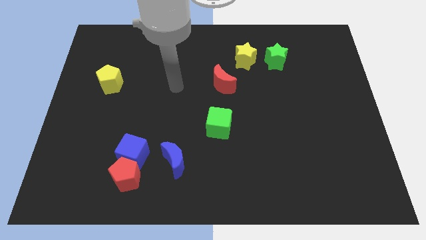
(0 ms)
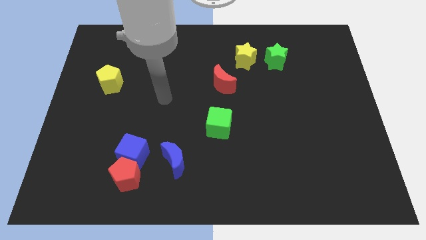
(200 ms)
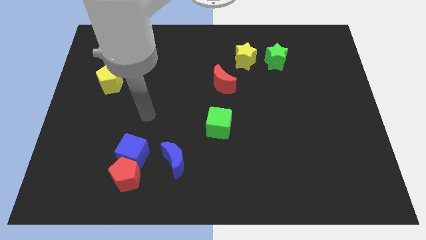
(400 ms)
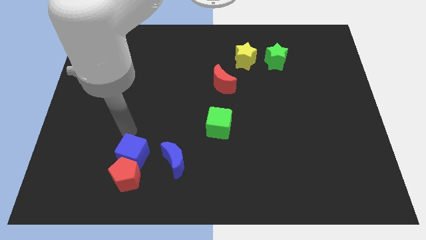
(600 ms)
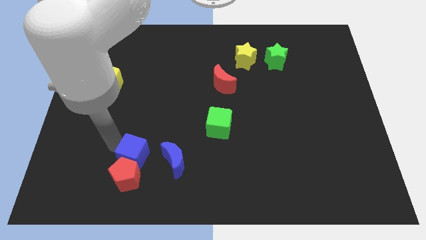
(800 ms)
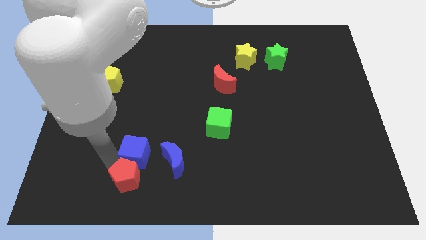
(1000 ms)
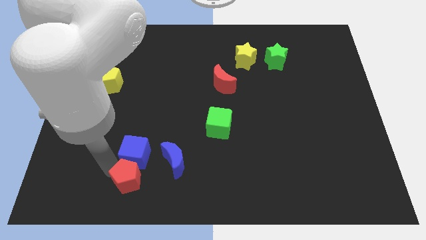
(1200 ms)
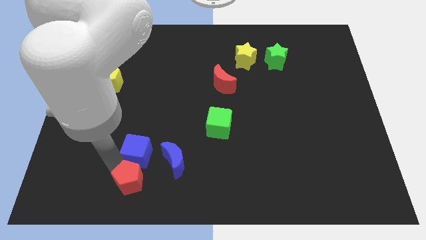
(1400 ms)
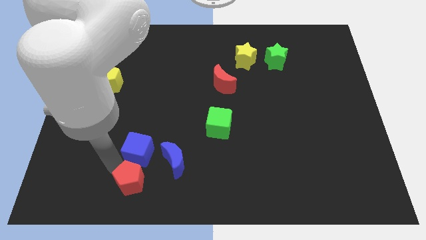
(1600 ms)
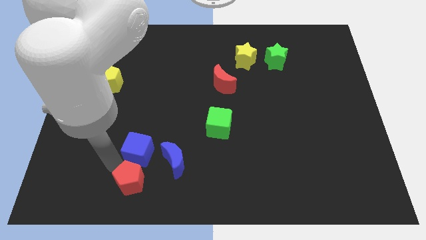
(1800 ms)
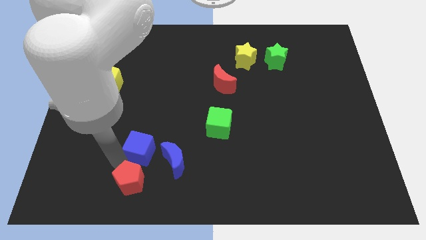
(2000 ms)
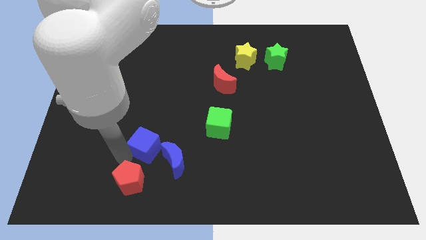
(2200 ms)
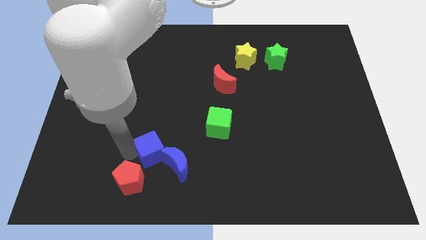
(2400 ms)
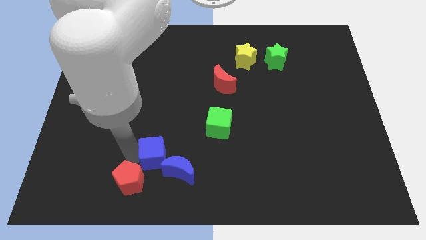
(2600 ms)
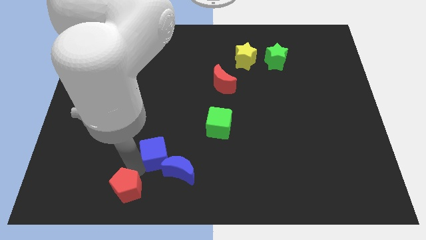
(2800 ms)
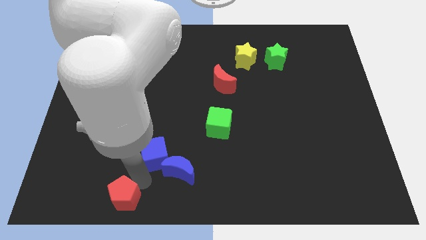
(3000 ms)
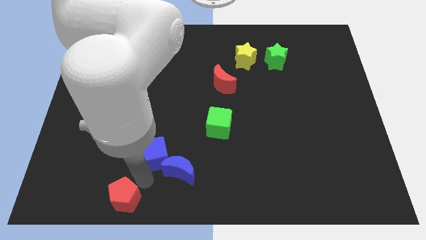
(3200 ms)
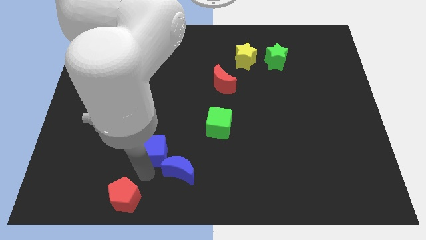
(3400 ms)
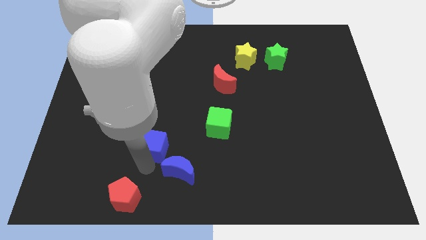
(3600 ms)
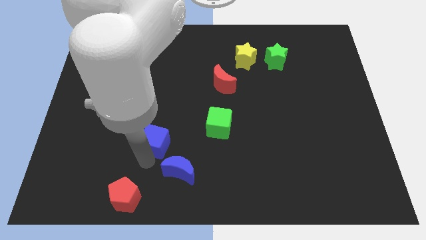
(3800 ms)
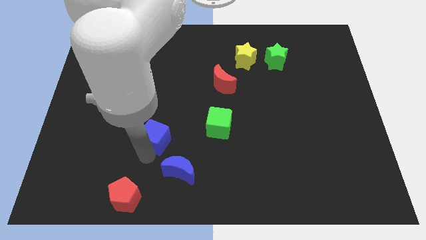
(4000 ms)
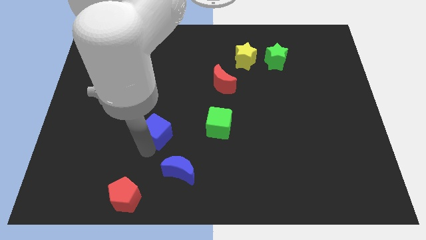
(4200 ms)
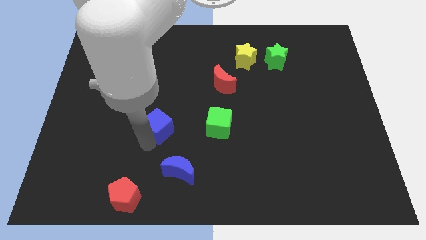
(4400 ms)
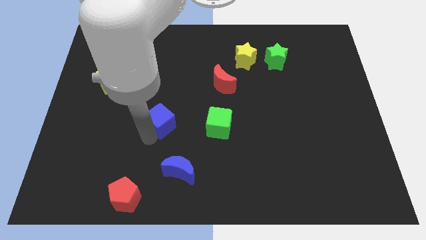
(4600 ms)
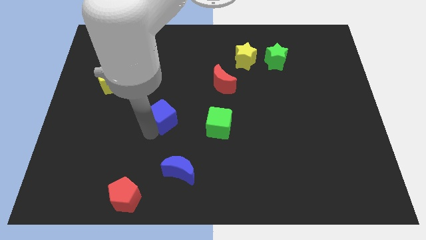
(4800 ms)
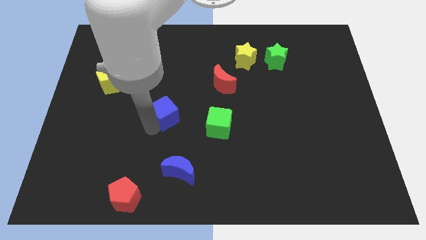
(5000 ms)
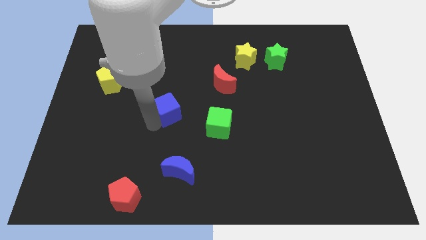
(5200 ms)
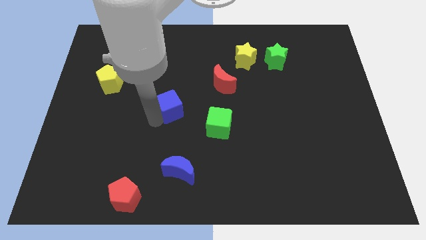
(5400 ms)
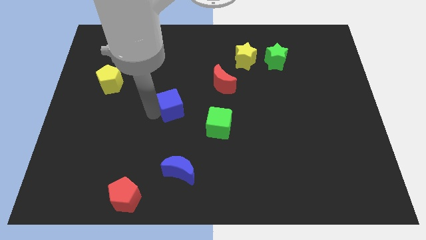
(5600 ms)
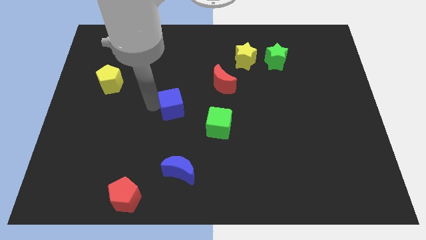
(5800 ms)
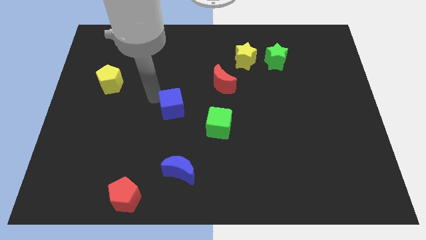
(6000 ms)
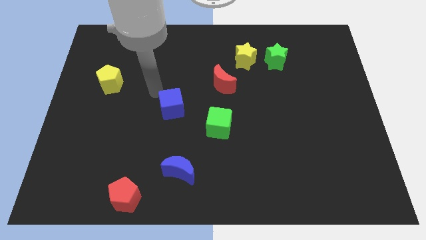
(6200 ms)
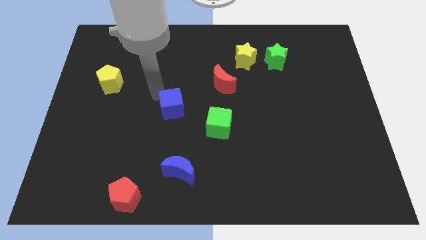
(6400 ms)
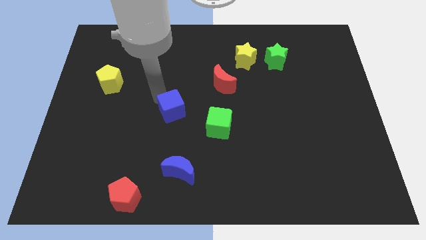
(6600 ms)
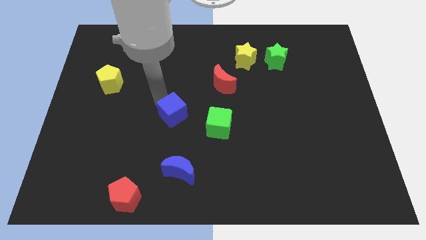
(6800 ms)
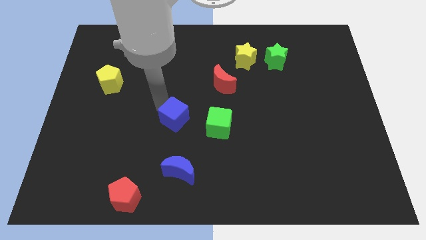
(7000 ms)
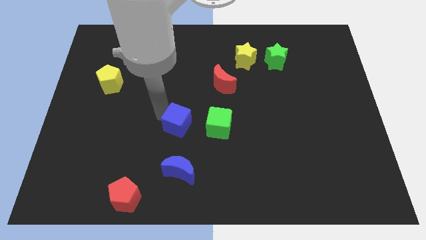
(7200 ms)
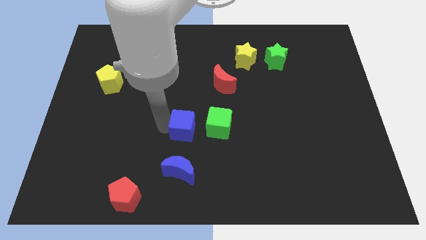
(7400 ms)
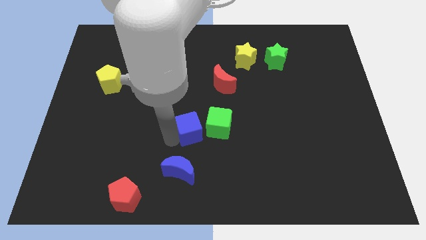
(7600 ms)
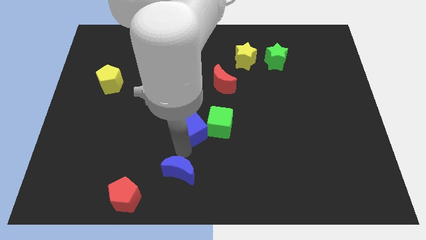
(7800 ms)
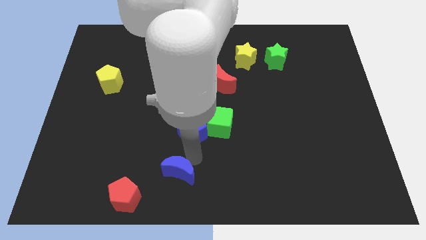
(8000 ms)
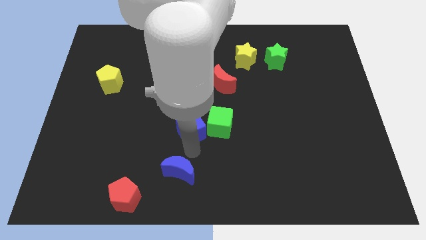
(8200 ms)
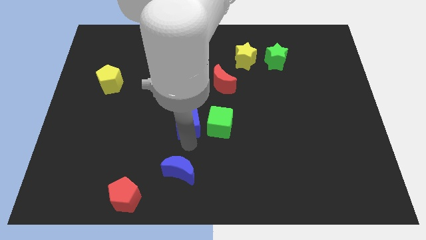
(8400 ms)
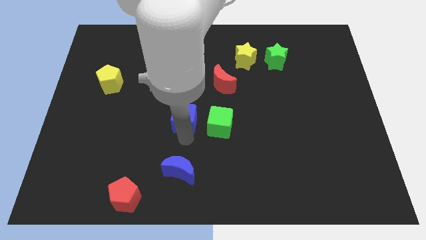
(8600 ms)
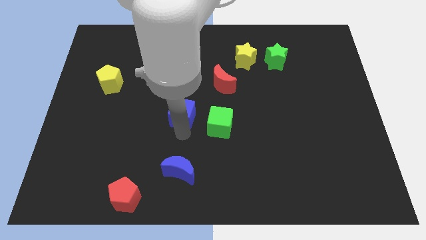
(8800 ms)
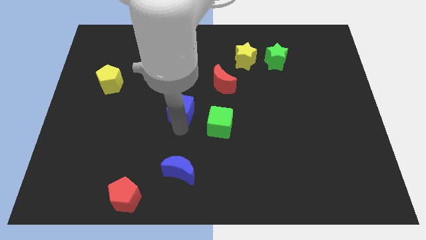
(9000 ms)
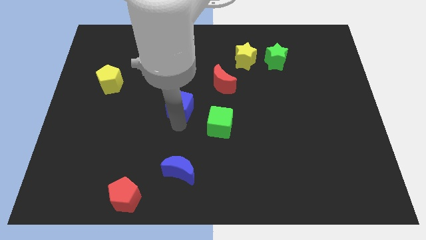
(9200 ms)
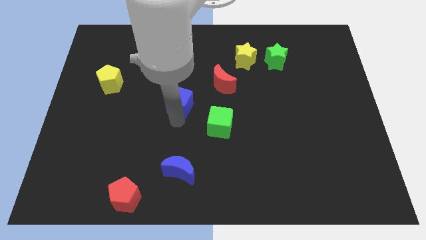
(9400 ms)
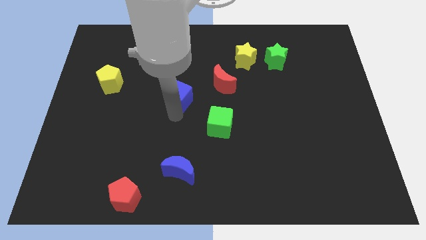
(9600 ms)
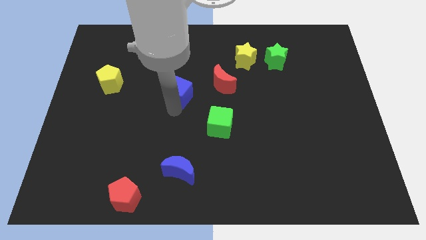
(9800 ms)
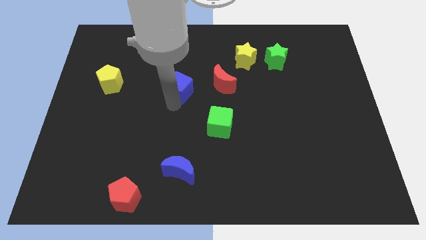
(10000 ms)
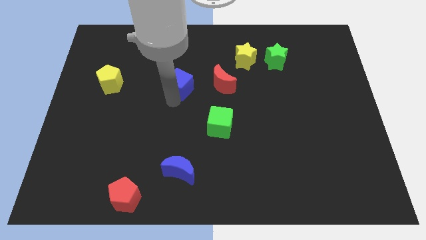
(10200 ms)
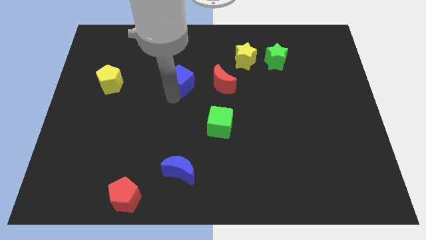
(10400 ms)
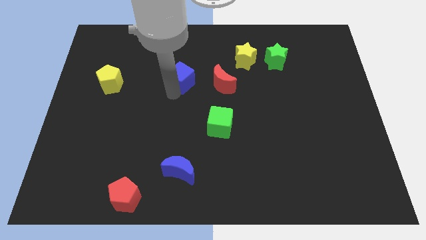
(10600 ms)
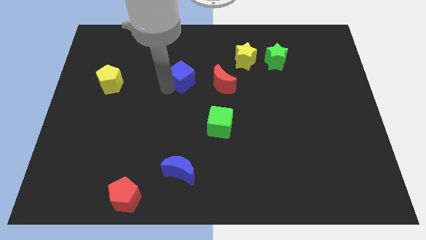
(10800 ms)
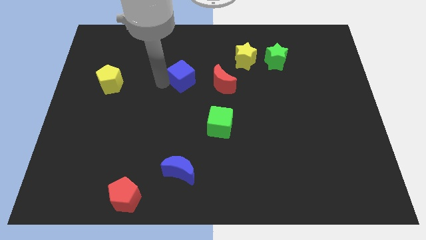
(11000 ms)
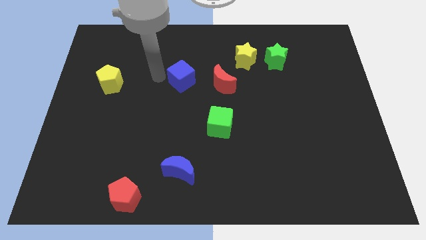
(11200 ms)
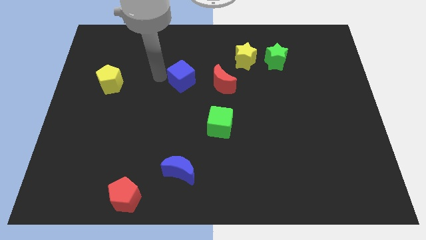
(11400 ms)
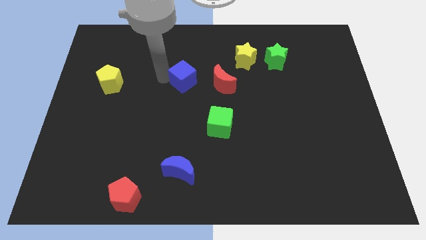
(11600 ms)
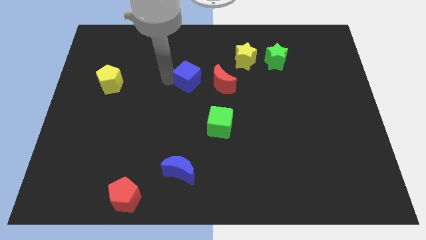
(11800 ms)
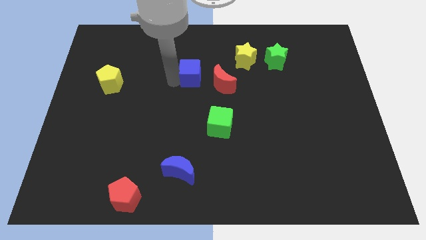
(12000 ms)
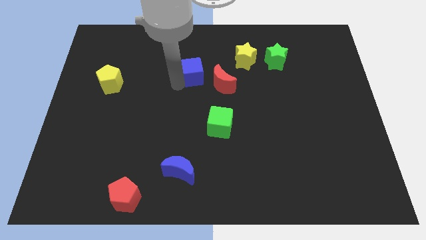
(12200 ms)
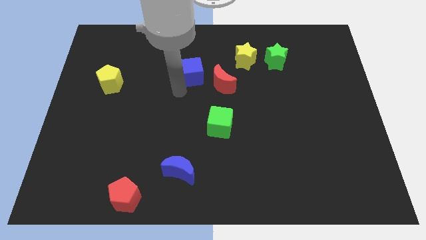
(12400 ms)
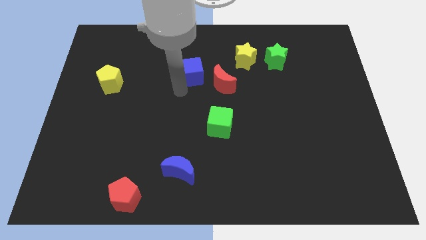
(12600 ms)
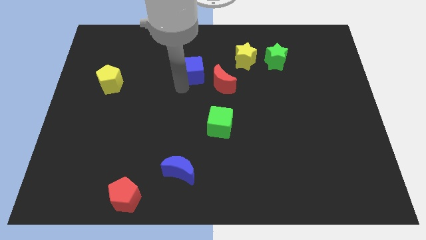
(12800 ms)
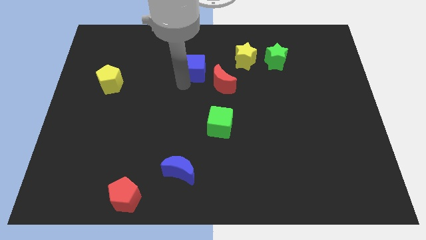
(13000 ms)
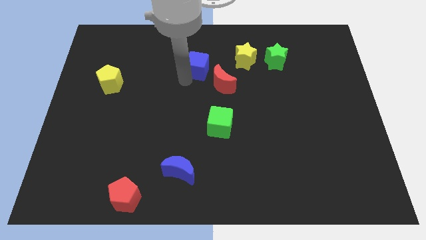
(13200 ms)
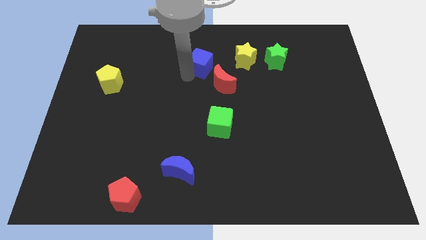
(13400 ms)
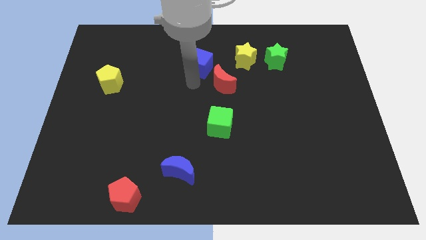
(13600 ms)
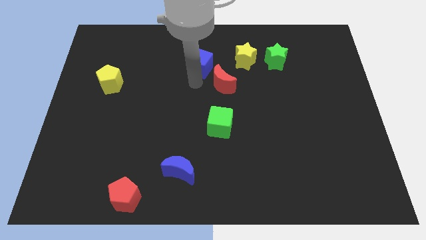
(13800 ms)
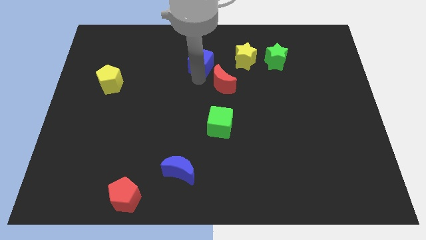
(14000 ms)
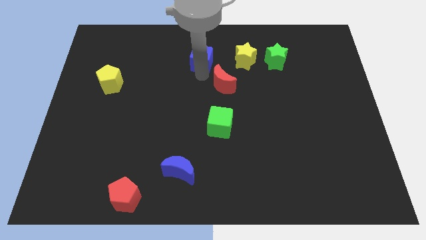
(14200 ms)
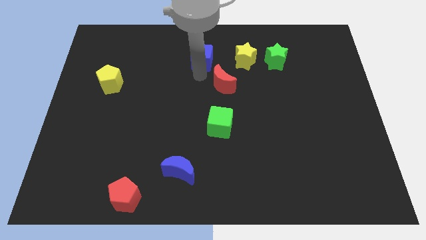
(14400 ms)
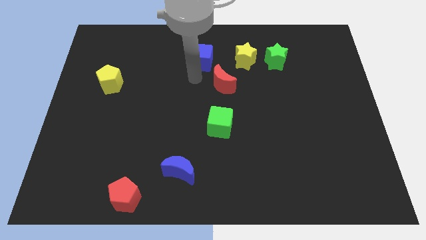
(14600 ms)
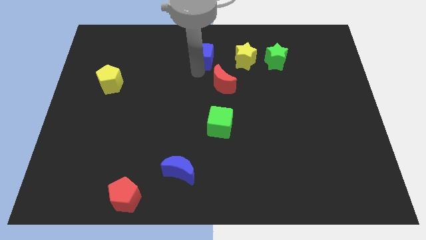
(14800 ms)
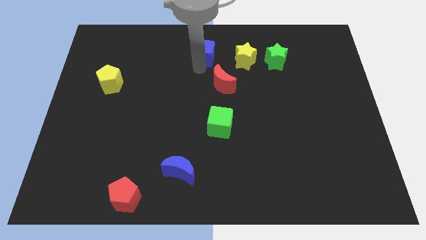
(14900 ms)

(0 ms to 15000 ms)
slide the blue cube to the towards your base
